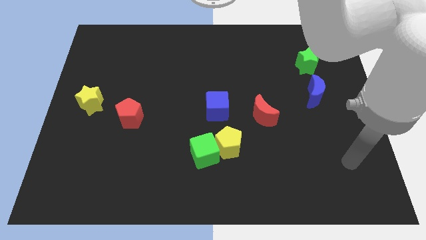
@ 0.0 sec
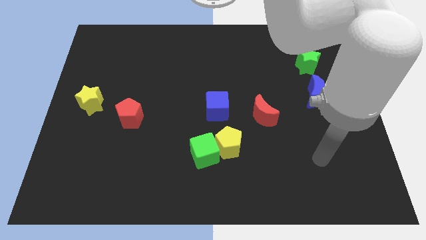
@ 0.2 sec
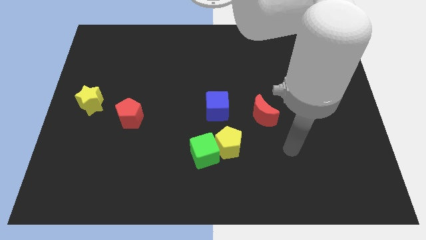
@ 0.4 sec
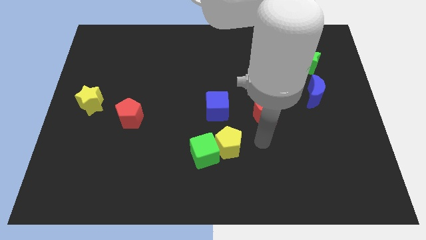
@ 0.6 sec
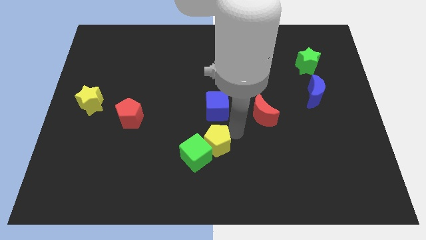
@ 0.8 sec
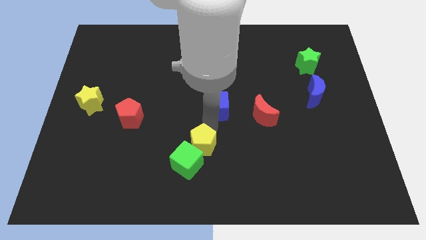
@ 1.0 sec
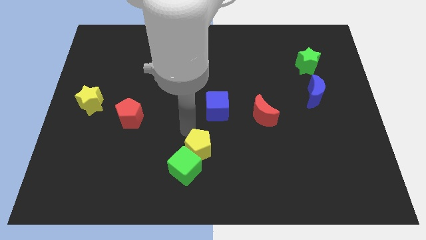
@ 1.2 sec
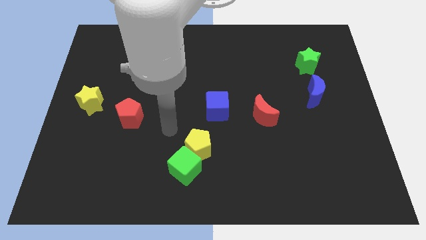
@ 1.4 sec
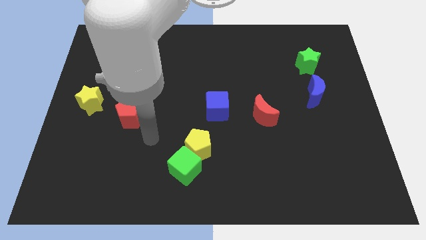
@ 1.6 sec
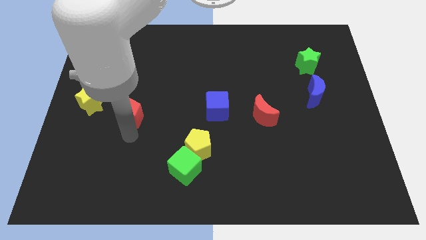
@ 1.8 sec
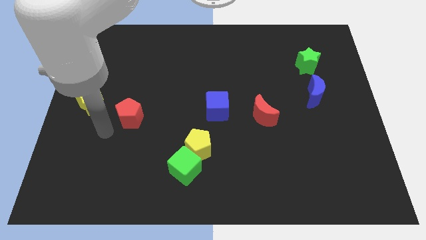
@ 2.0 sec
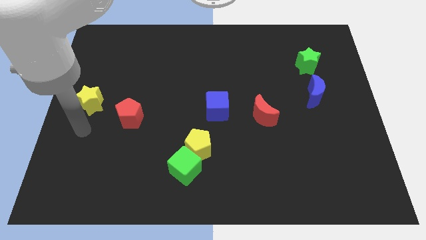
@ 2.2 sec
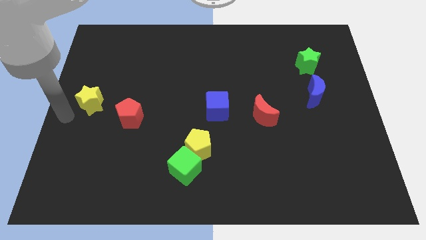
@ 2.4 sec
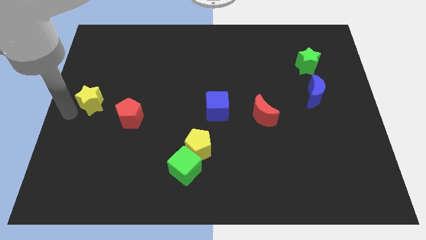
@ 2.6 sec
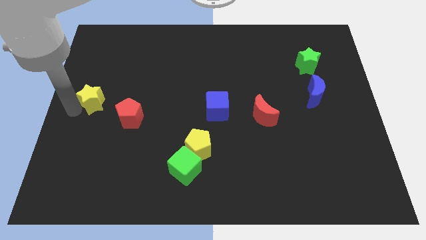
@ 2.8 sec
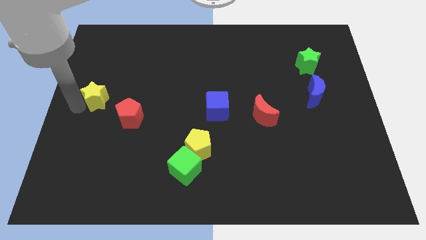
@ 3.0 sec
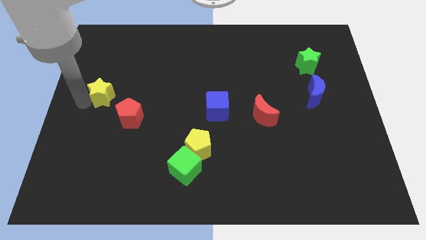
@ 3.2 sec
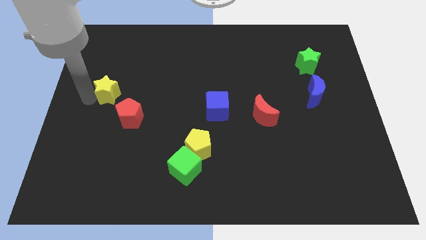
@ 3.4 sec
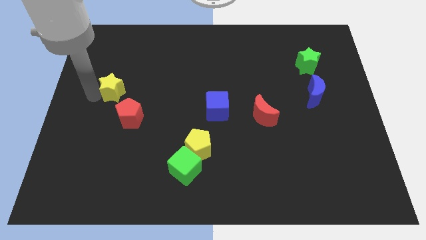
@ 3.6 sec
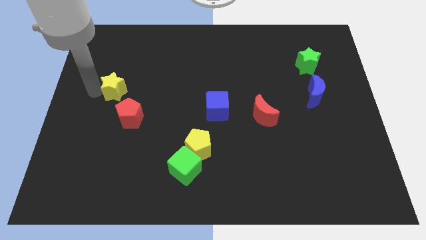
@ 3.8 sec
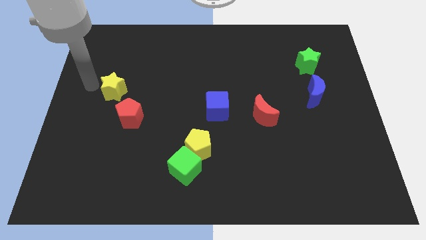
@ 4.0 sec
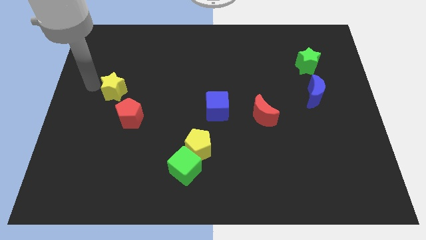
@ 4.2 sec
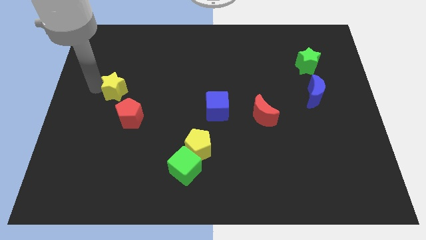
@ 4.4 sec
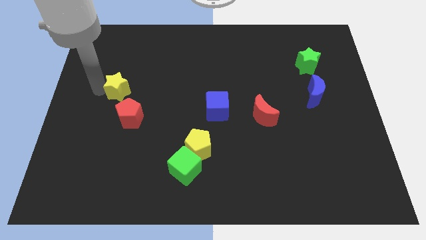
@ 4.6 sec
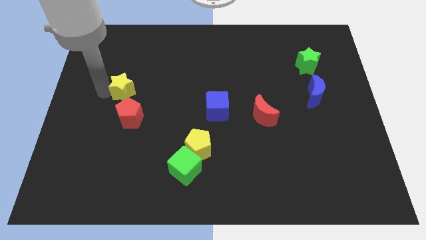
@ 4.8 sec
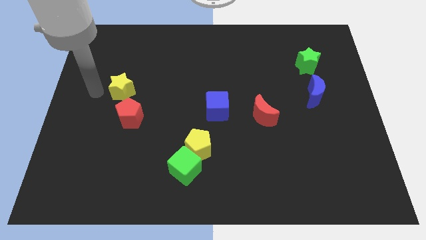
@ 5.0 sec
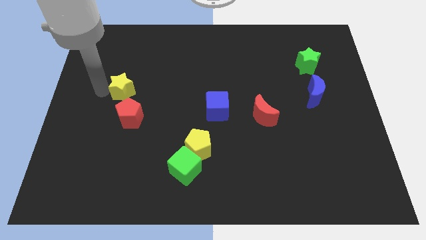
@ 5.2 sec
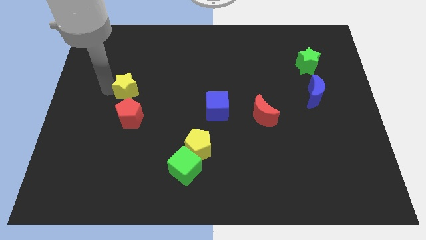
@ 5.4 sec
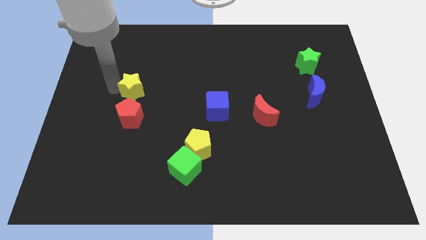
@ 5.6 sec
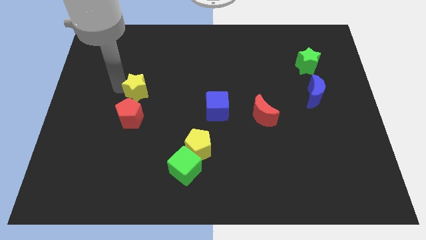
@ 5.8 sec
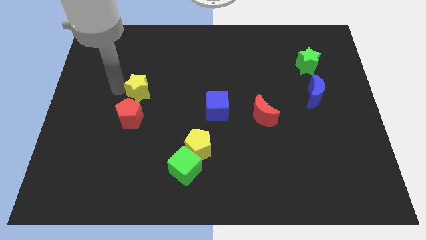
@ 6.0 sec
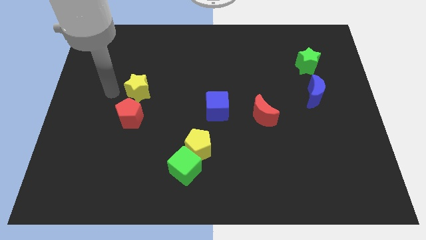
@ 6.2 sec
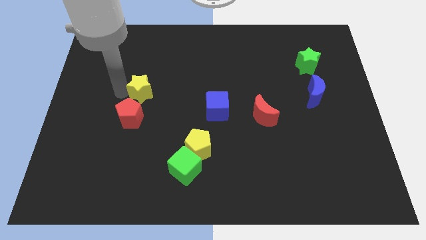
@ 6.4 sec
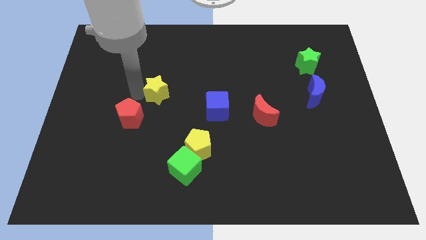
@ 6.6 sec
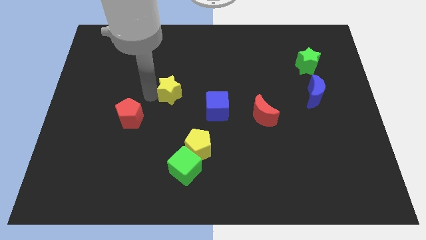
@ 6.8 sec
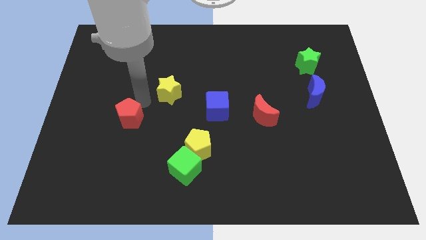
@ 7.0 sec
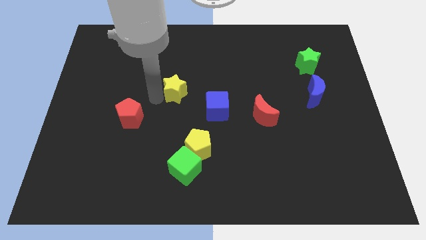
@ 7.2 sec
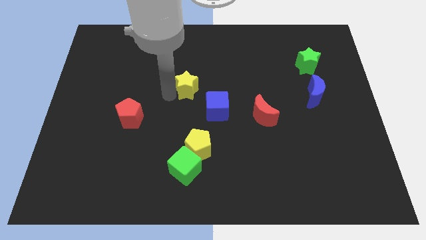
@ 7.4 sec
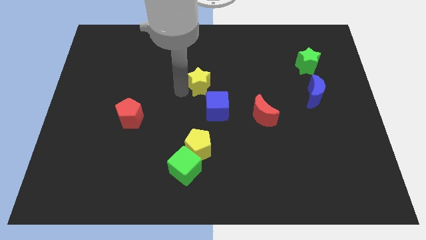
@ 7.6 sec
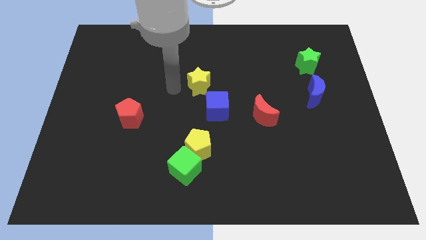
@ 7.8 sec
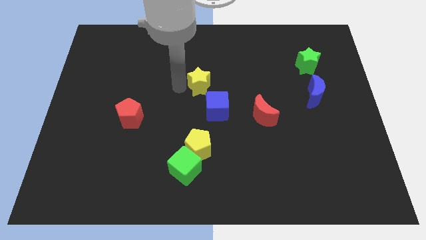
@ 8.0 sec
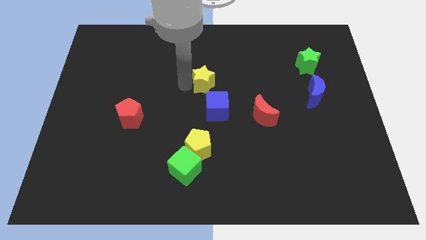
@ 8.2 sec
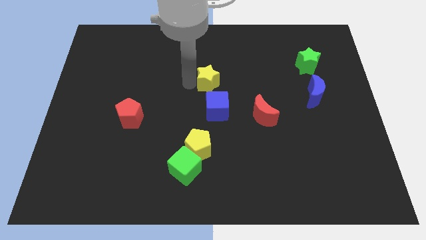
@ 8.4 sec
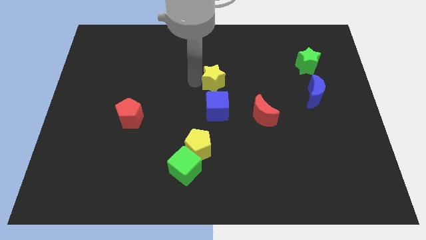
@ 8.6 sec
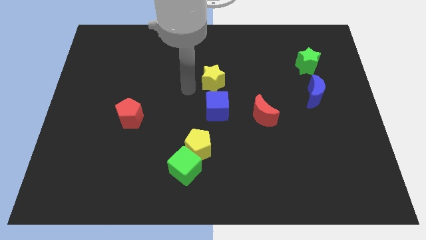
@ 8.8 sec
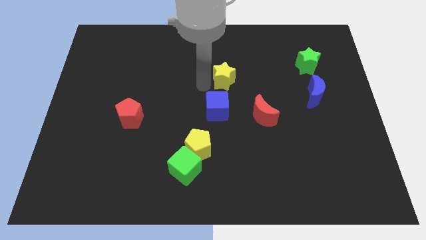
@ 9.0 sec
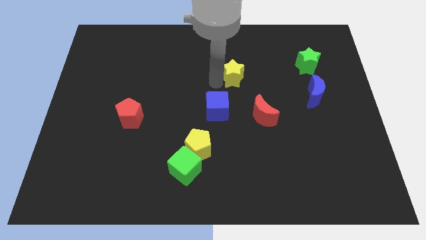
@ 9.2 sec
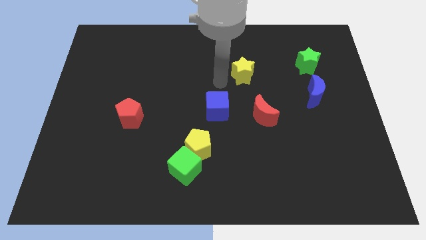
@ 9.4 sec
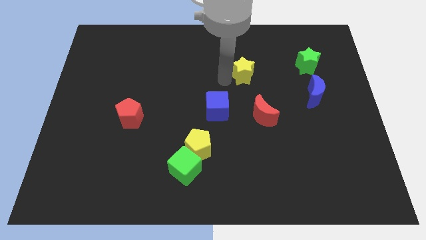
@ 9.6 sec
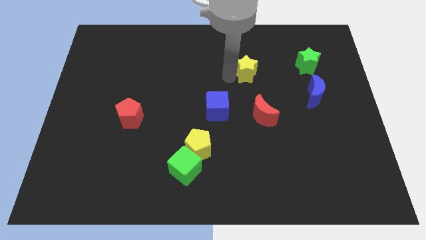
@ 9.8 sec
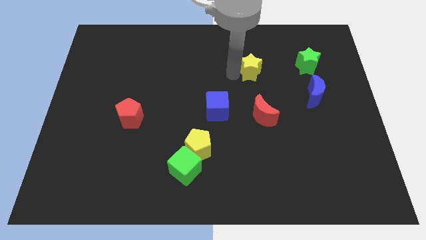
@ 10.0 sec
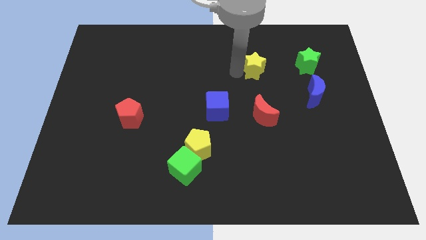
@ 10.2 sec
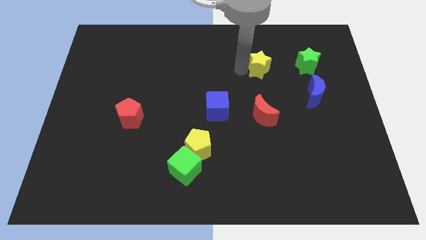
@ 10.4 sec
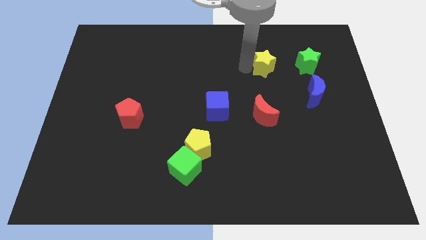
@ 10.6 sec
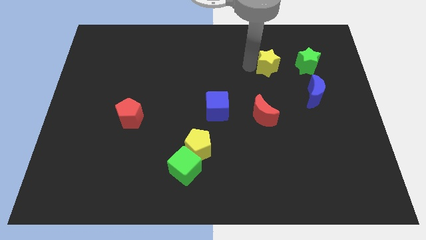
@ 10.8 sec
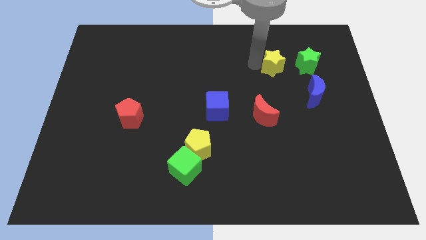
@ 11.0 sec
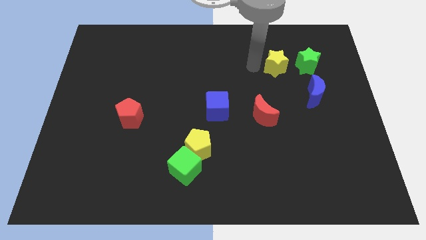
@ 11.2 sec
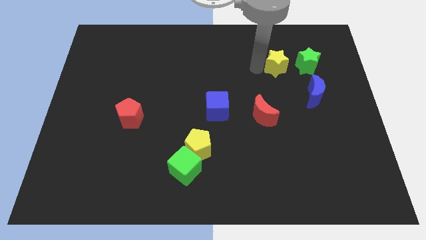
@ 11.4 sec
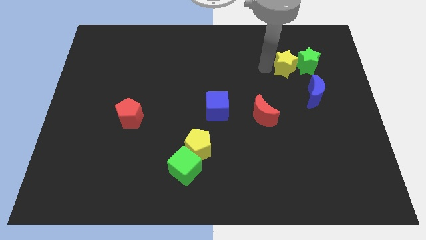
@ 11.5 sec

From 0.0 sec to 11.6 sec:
move the yellow star close to the green star
